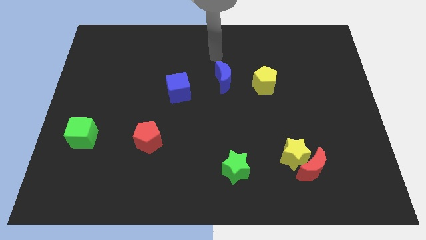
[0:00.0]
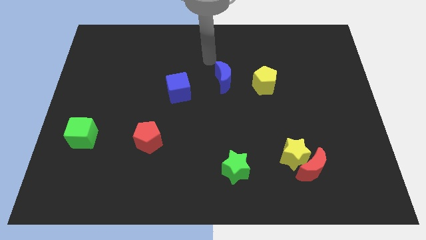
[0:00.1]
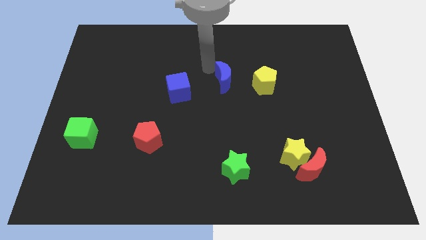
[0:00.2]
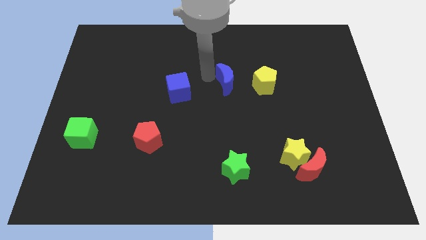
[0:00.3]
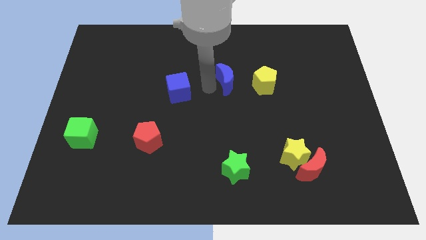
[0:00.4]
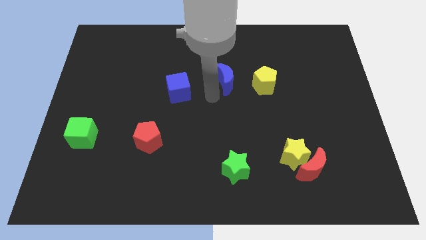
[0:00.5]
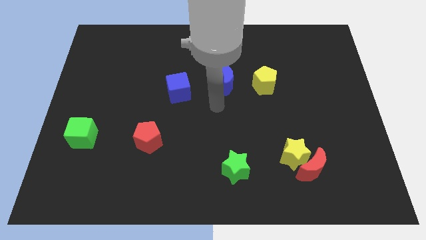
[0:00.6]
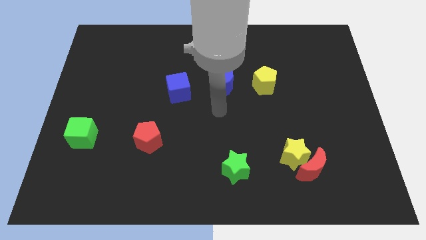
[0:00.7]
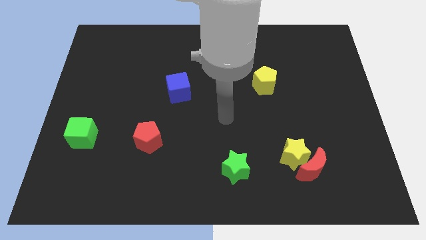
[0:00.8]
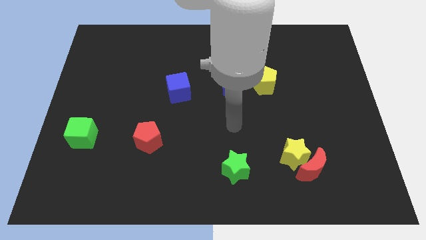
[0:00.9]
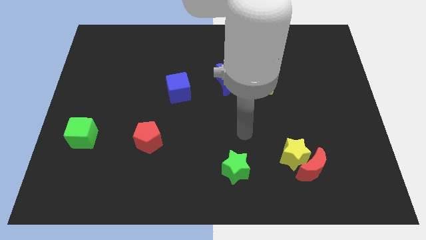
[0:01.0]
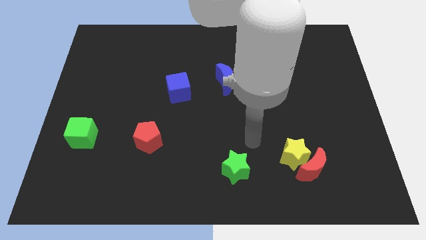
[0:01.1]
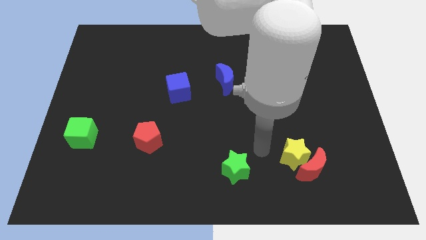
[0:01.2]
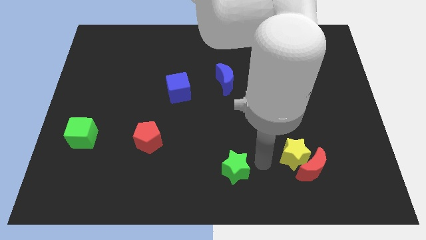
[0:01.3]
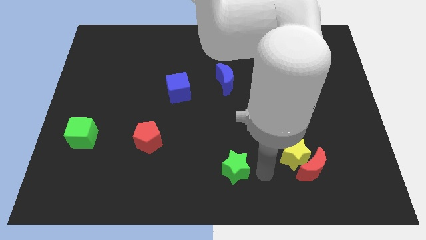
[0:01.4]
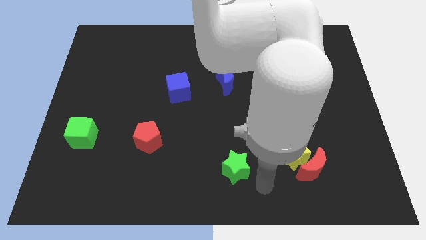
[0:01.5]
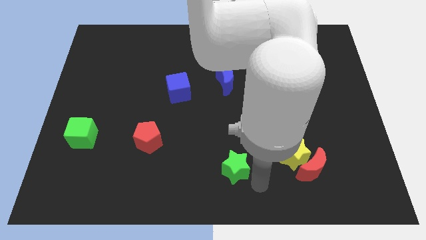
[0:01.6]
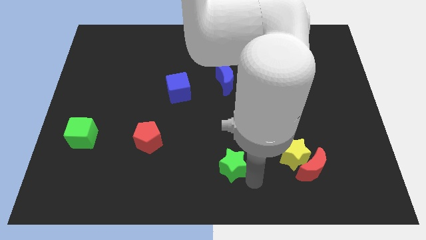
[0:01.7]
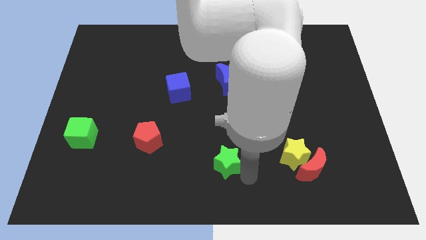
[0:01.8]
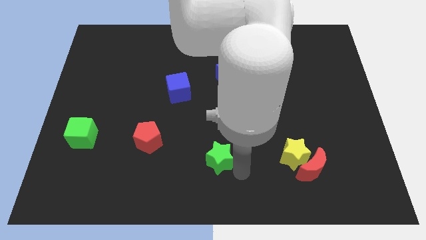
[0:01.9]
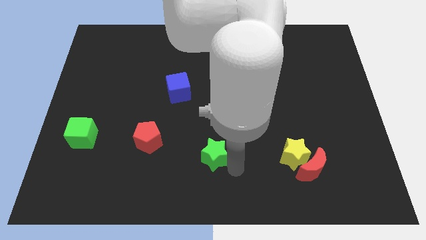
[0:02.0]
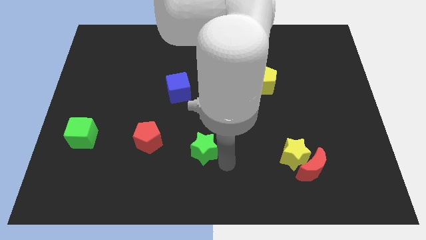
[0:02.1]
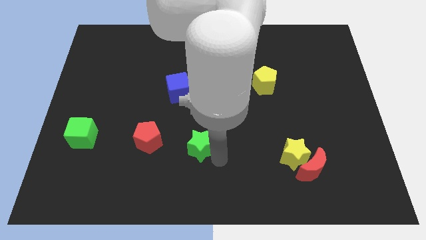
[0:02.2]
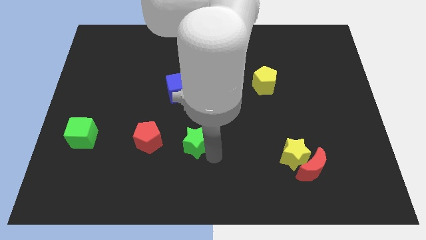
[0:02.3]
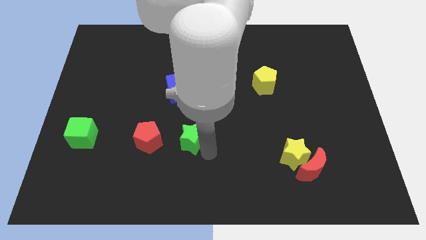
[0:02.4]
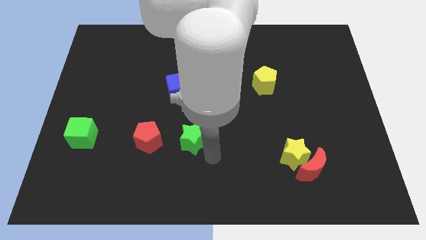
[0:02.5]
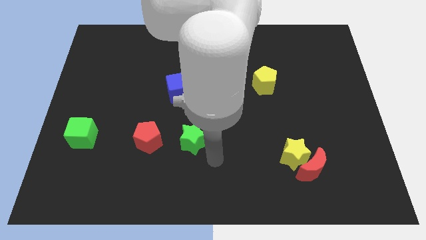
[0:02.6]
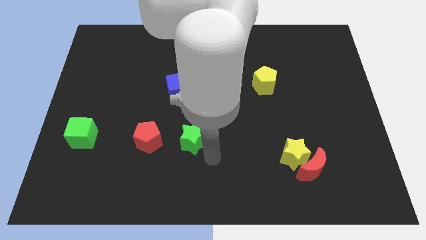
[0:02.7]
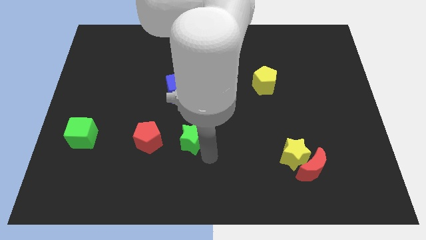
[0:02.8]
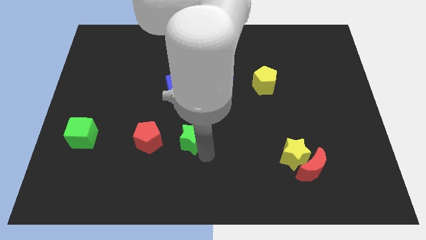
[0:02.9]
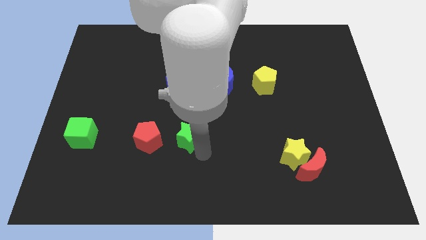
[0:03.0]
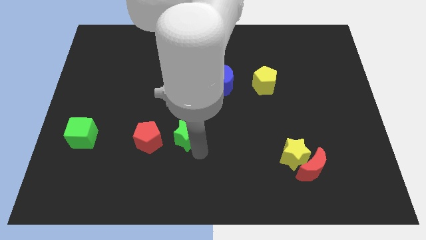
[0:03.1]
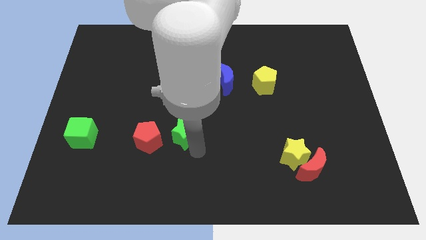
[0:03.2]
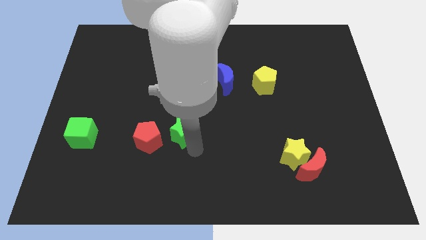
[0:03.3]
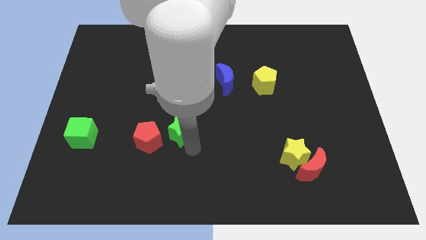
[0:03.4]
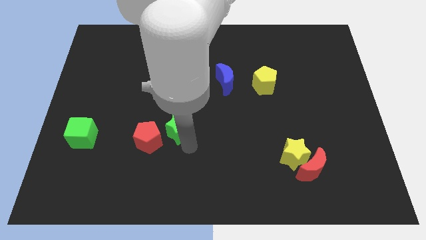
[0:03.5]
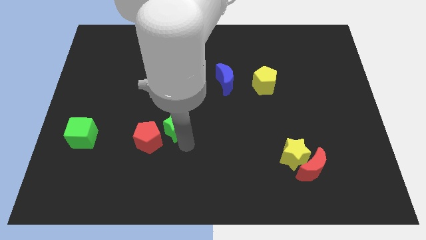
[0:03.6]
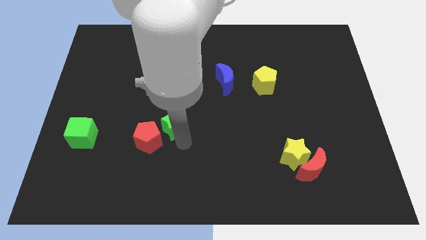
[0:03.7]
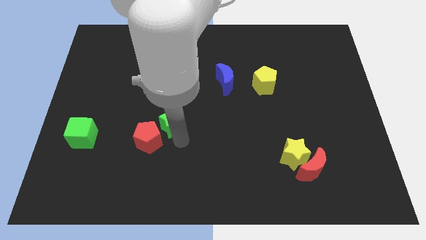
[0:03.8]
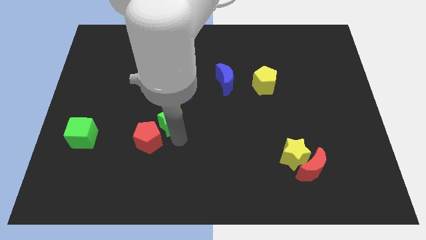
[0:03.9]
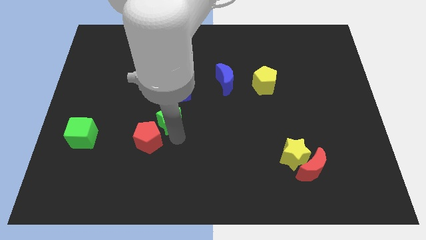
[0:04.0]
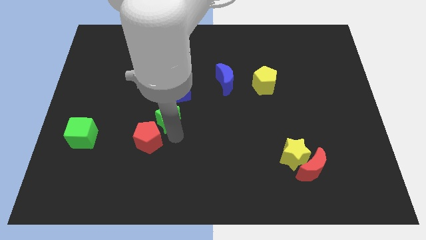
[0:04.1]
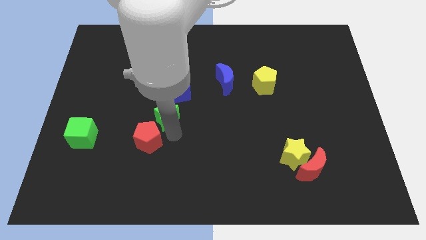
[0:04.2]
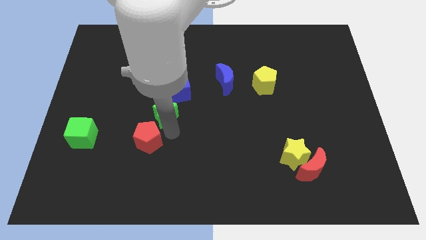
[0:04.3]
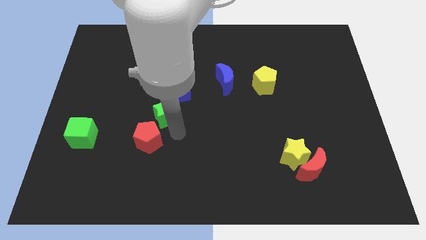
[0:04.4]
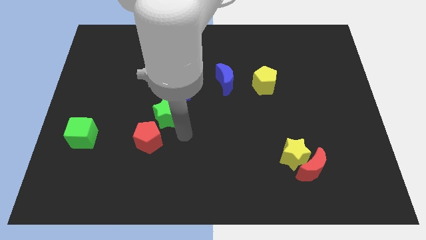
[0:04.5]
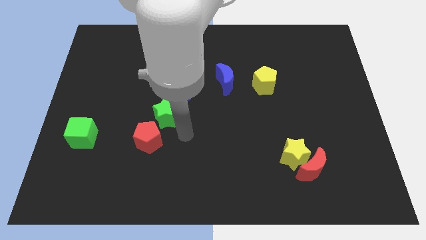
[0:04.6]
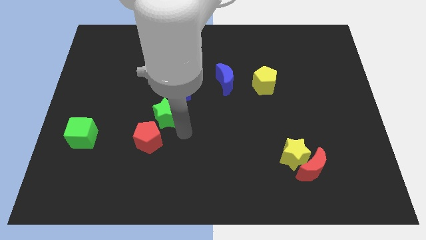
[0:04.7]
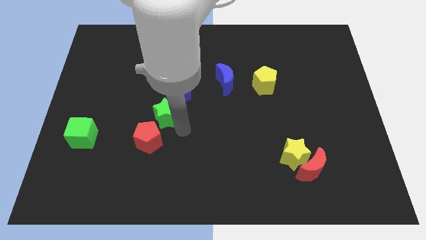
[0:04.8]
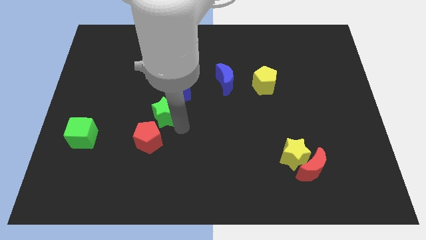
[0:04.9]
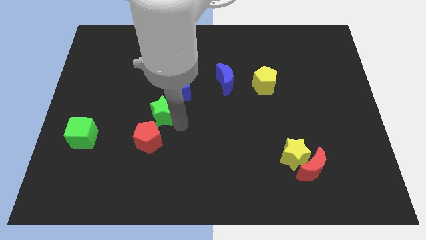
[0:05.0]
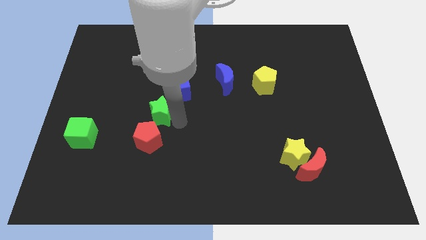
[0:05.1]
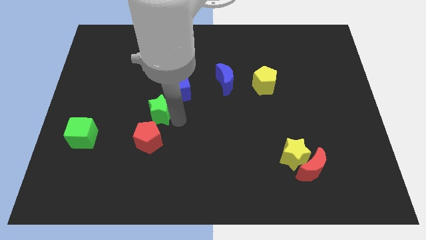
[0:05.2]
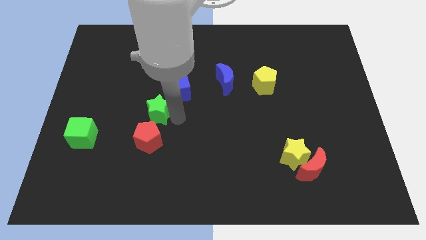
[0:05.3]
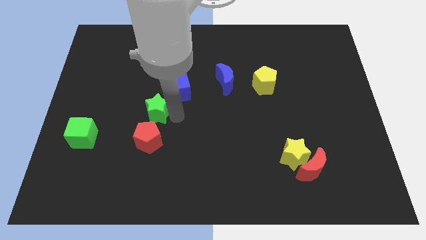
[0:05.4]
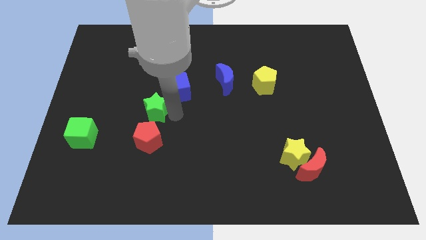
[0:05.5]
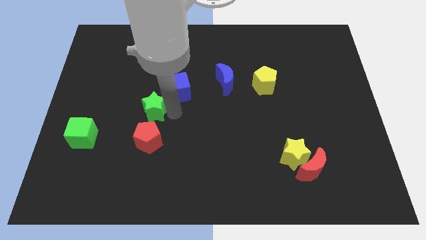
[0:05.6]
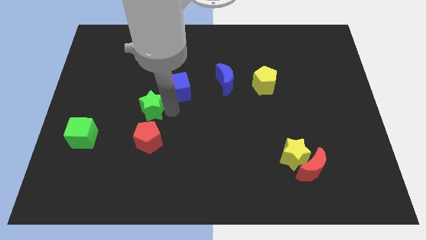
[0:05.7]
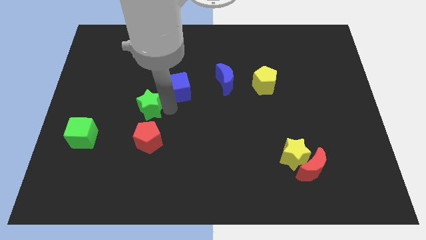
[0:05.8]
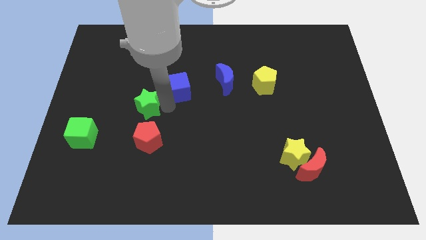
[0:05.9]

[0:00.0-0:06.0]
move the green star just left of the blue cube

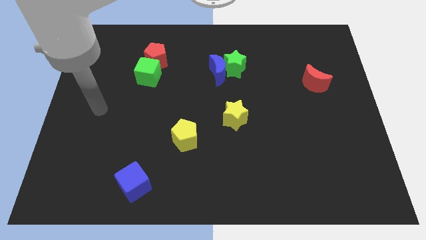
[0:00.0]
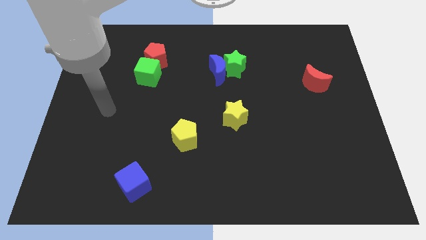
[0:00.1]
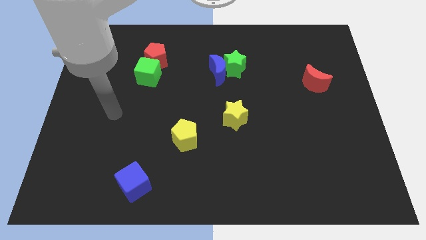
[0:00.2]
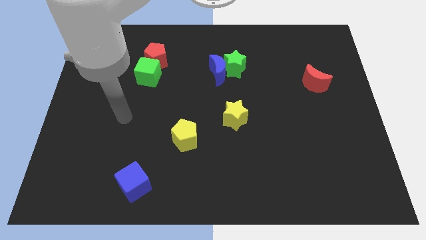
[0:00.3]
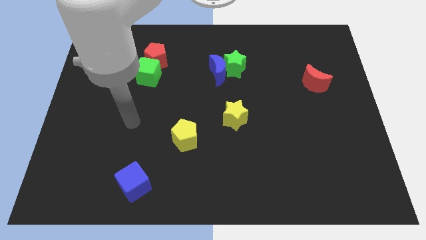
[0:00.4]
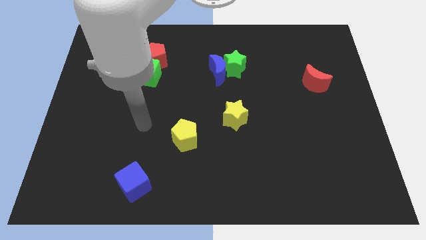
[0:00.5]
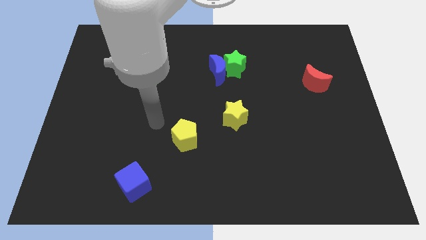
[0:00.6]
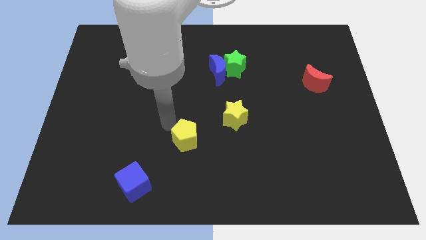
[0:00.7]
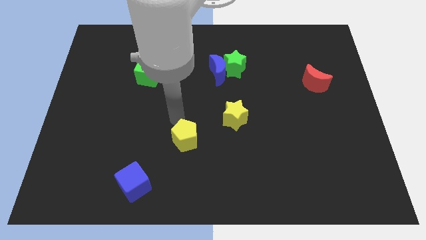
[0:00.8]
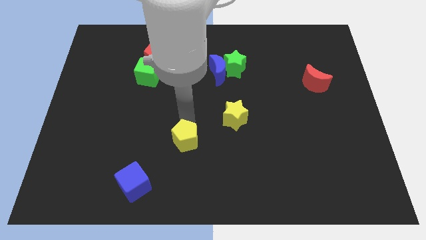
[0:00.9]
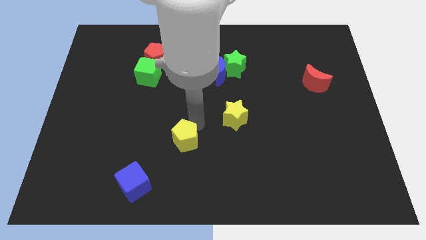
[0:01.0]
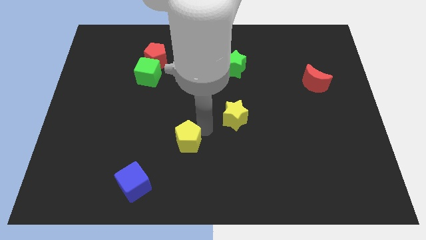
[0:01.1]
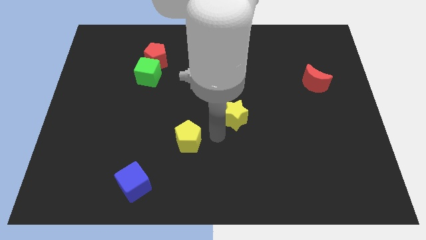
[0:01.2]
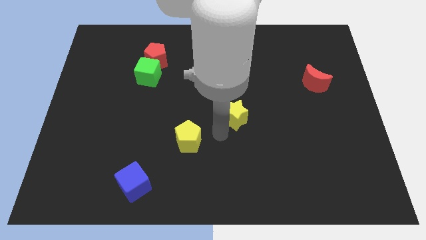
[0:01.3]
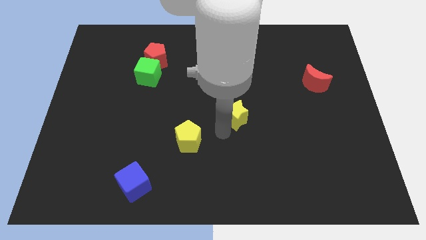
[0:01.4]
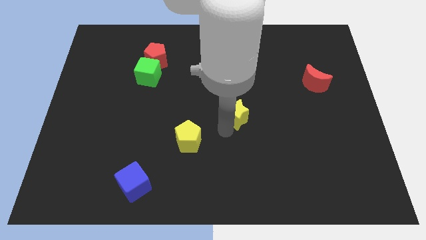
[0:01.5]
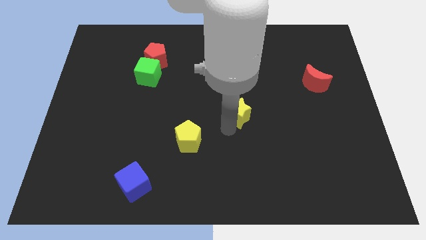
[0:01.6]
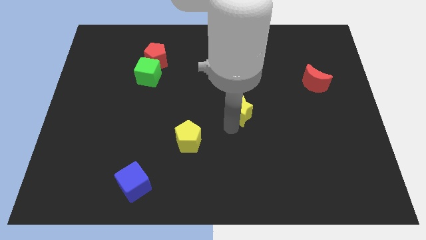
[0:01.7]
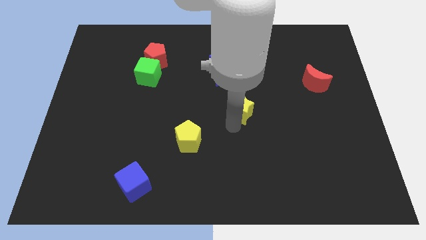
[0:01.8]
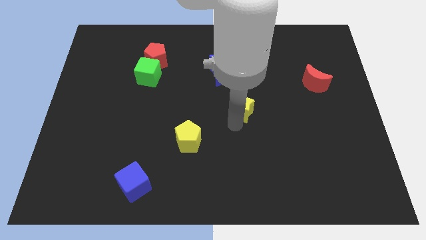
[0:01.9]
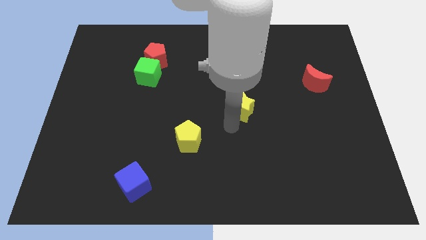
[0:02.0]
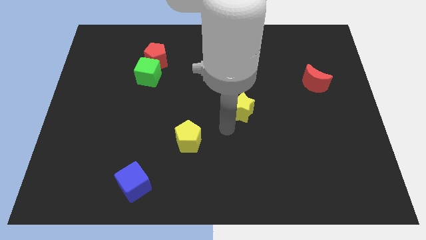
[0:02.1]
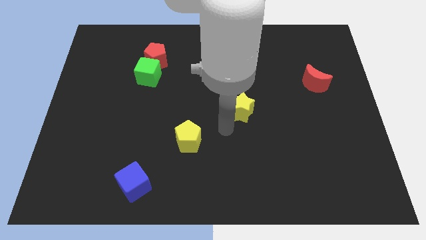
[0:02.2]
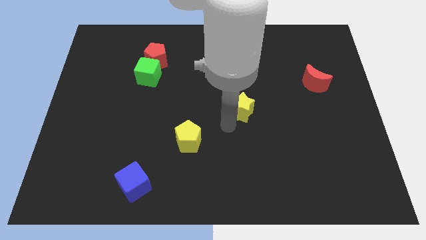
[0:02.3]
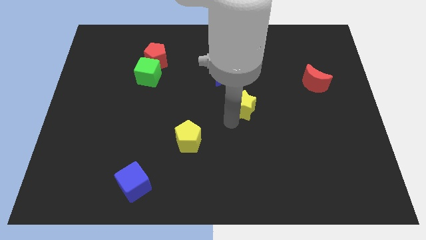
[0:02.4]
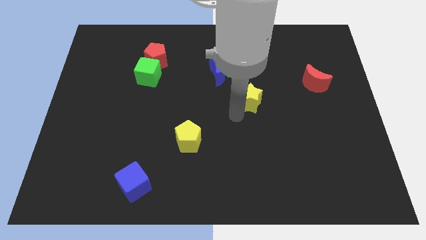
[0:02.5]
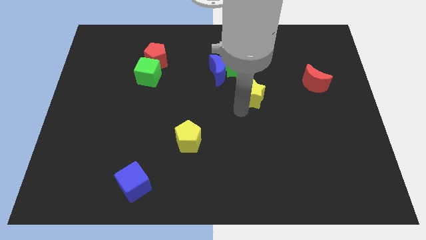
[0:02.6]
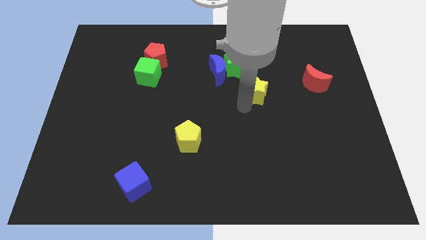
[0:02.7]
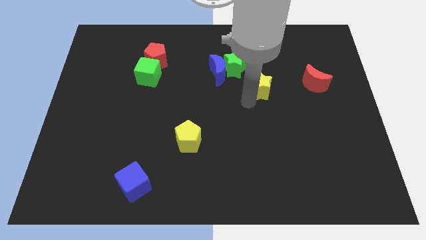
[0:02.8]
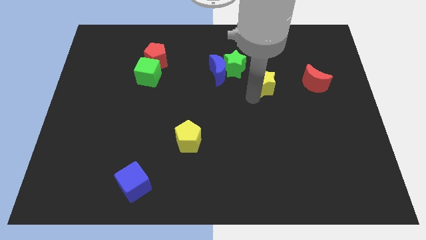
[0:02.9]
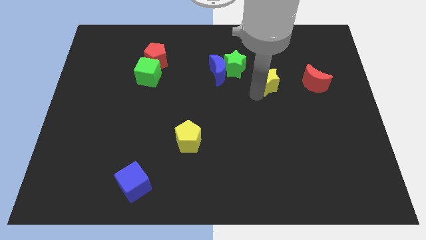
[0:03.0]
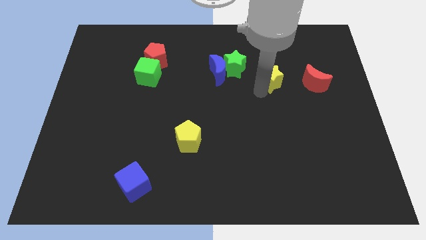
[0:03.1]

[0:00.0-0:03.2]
slide the yellow star just right of the green star
